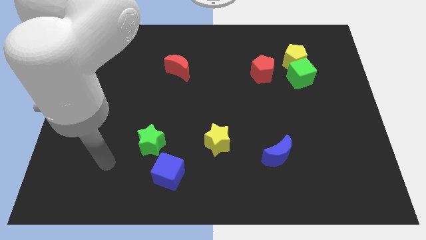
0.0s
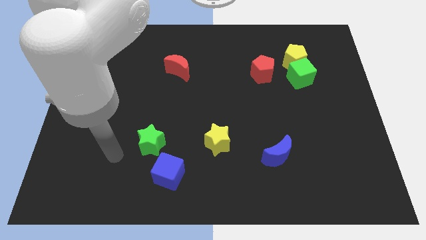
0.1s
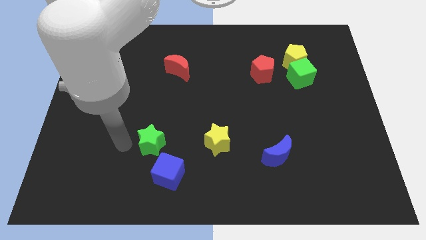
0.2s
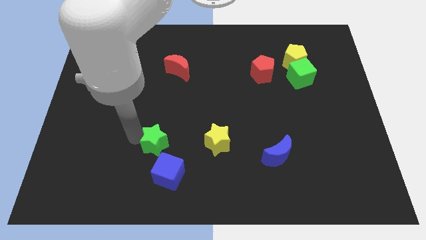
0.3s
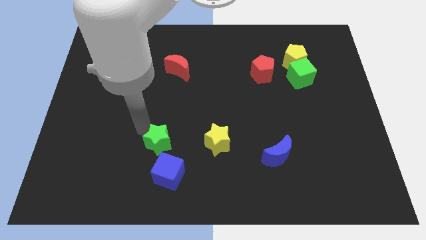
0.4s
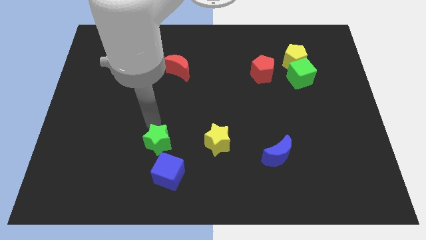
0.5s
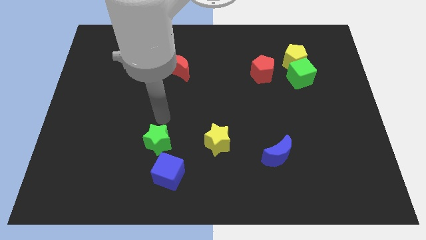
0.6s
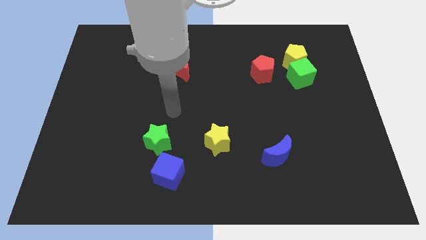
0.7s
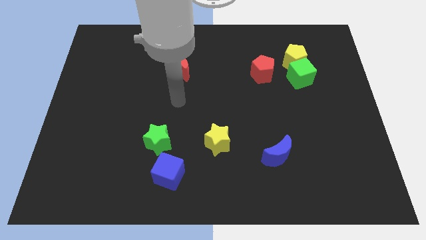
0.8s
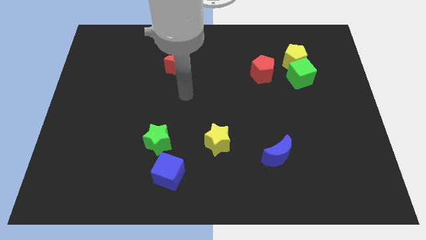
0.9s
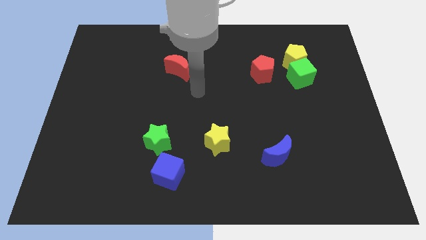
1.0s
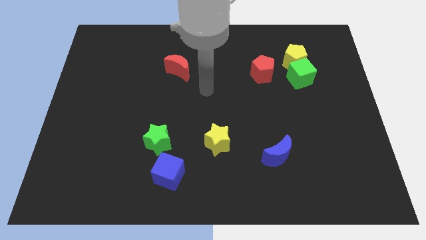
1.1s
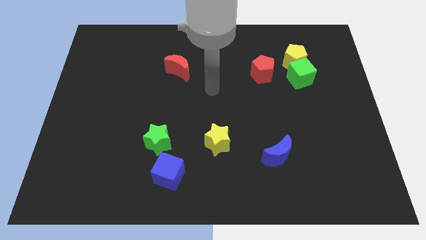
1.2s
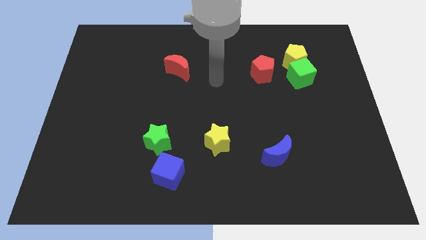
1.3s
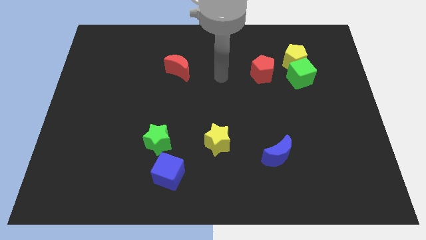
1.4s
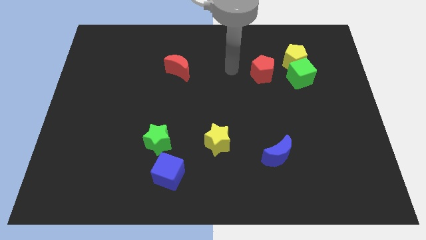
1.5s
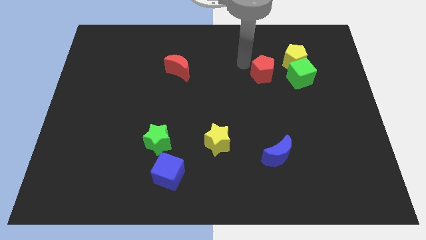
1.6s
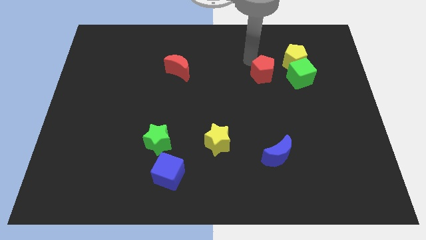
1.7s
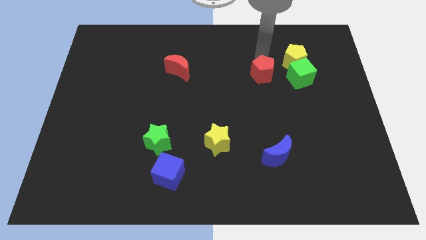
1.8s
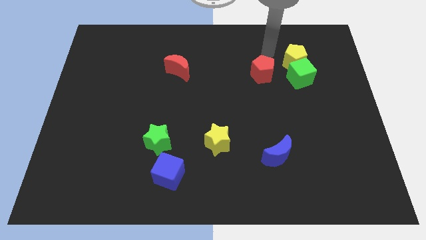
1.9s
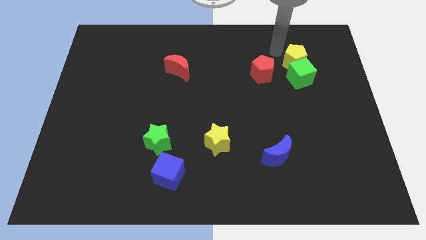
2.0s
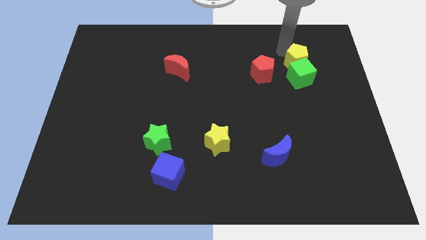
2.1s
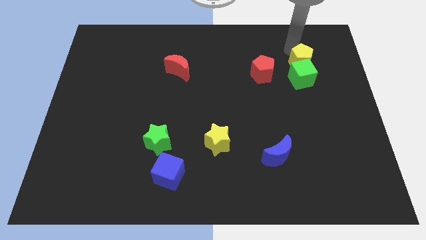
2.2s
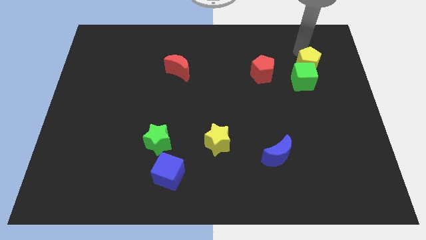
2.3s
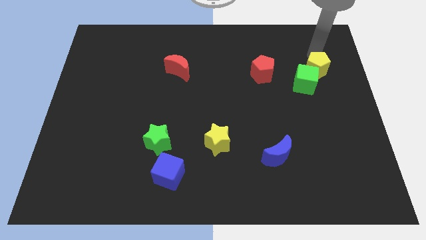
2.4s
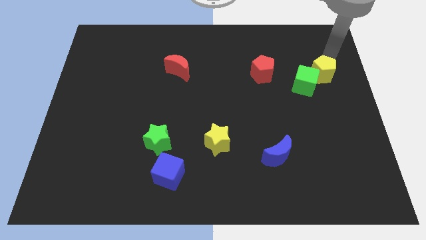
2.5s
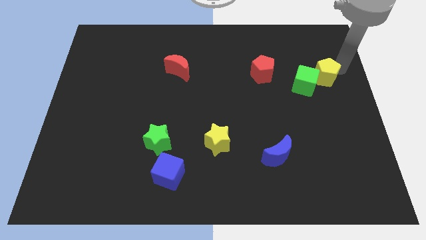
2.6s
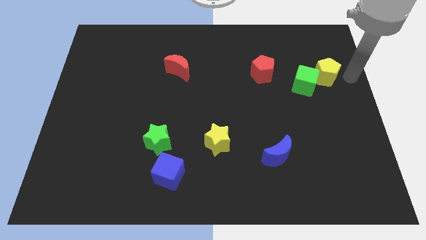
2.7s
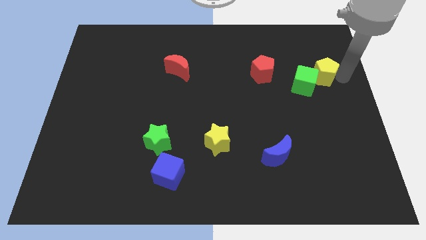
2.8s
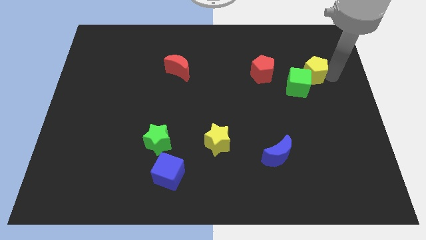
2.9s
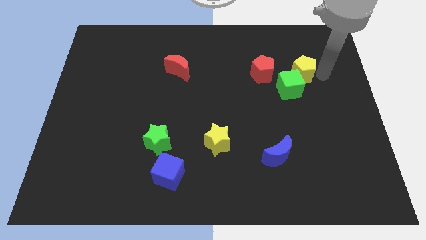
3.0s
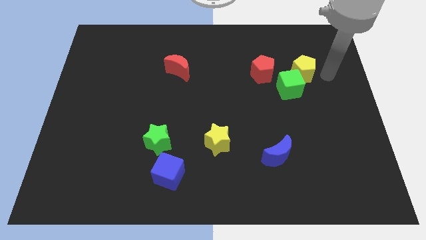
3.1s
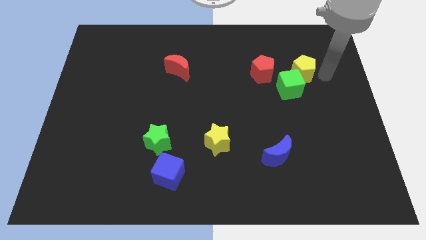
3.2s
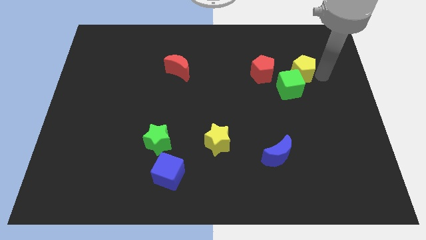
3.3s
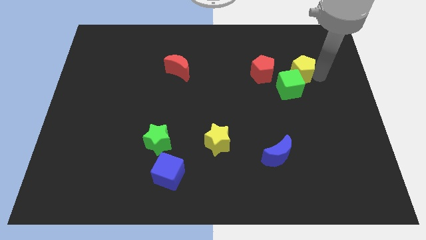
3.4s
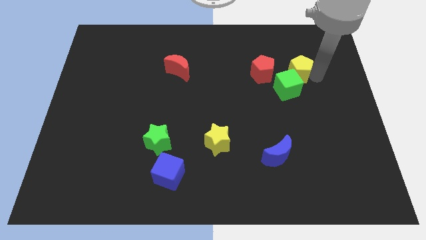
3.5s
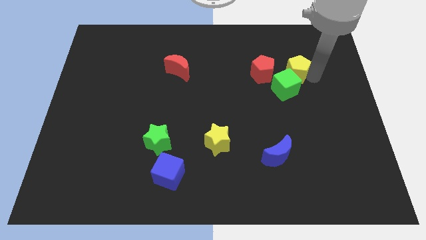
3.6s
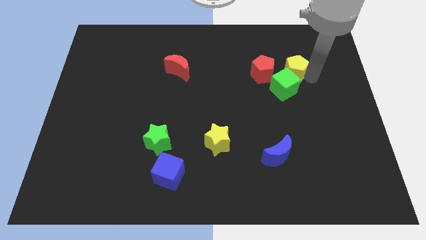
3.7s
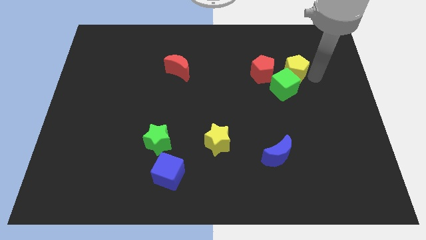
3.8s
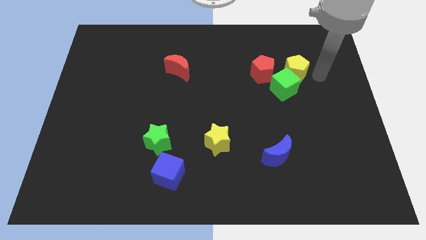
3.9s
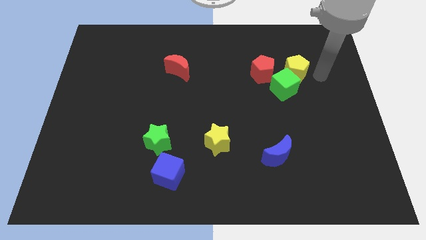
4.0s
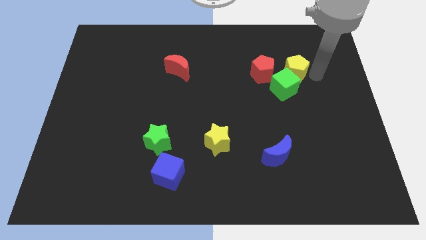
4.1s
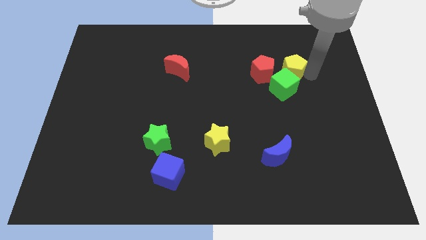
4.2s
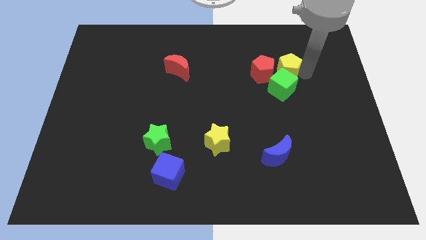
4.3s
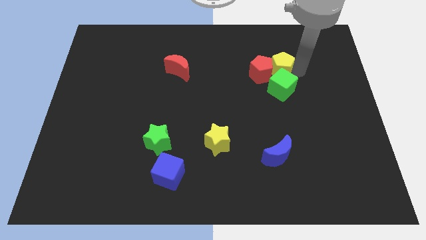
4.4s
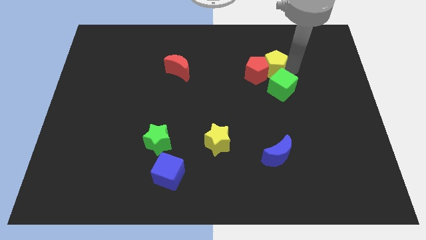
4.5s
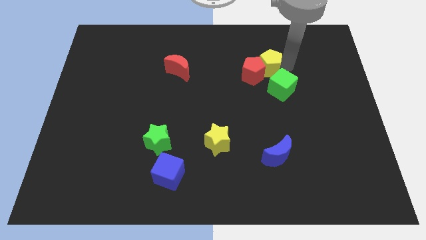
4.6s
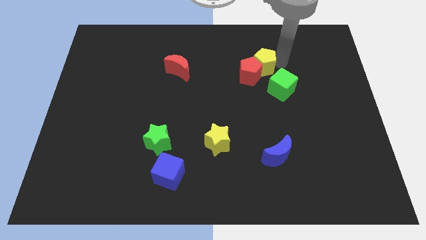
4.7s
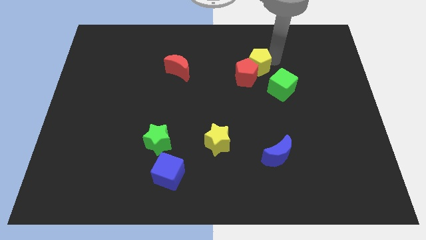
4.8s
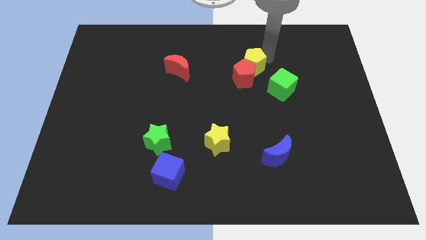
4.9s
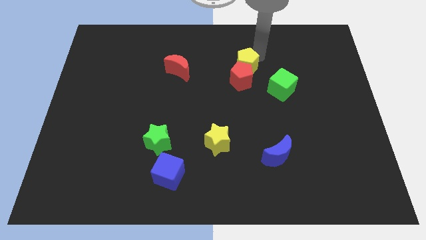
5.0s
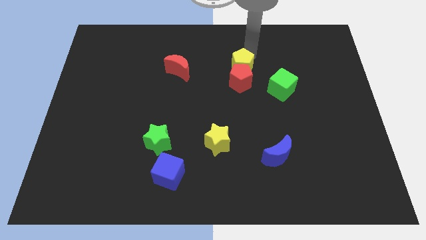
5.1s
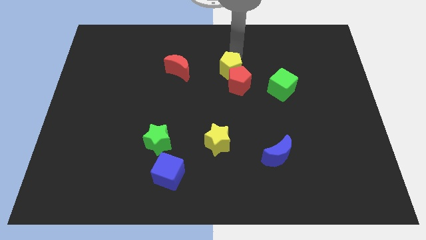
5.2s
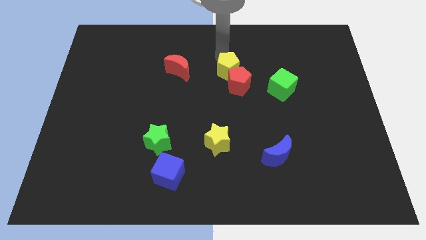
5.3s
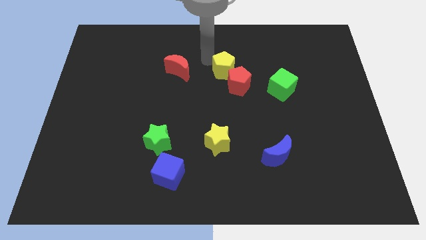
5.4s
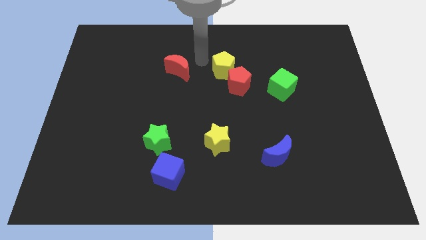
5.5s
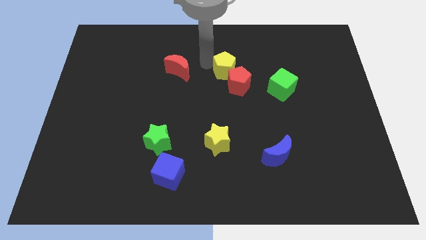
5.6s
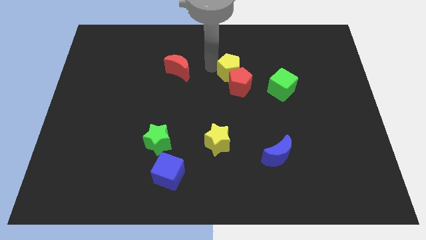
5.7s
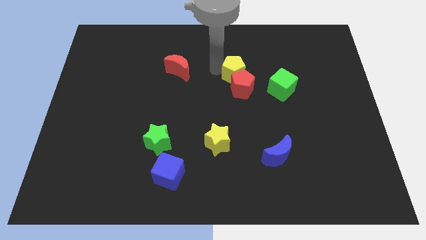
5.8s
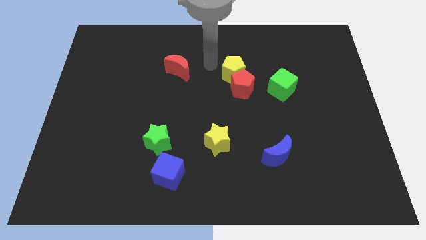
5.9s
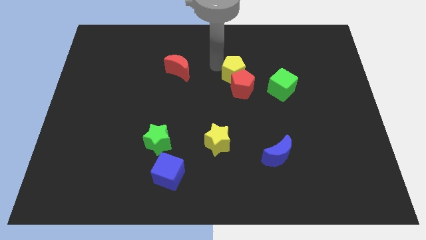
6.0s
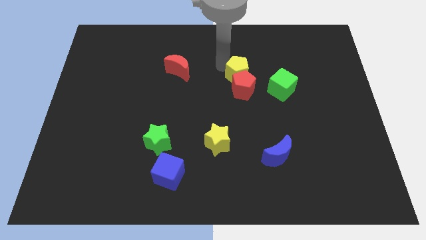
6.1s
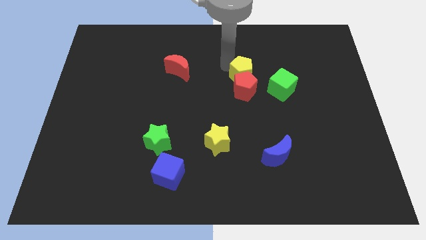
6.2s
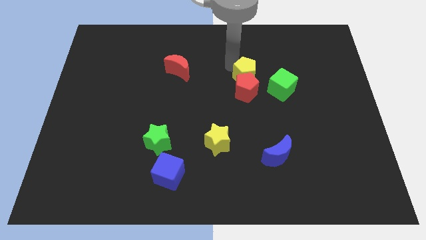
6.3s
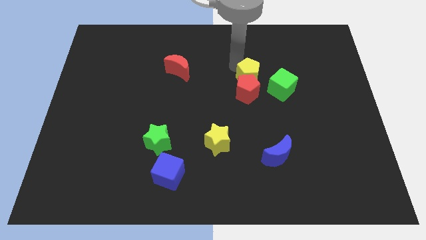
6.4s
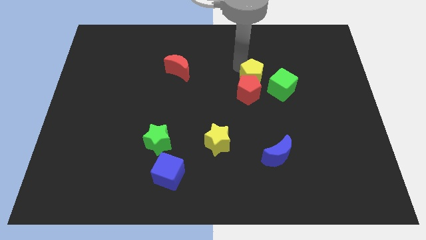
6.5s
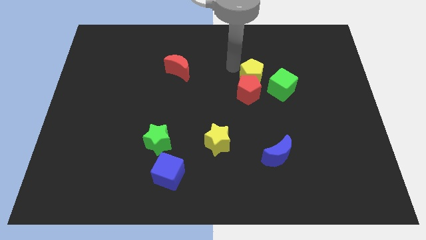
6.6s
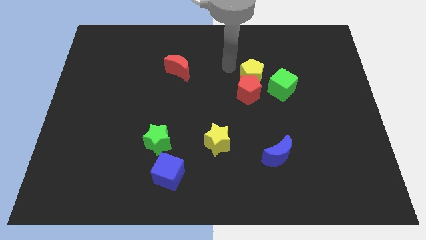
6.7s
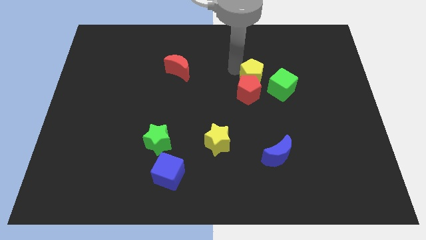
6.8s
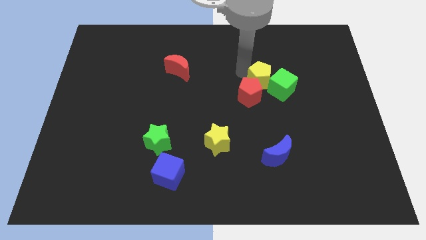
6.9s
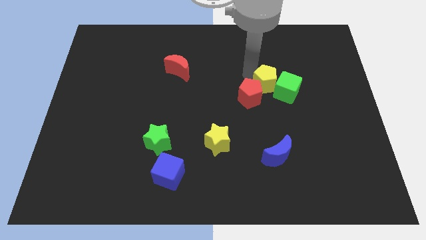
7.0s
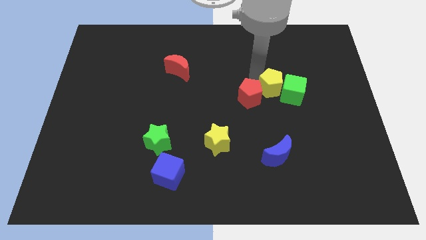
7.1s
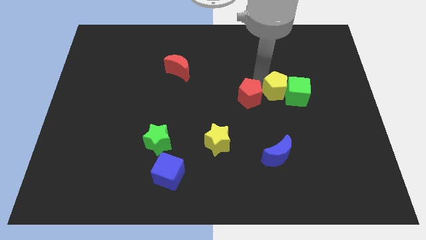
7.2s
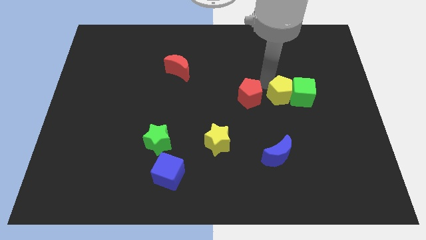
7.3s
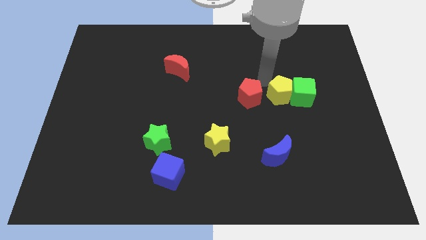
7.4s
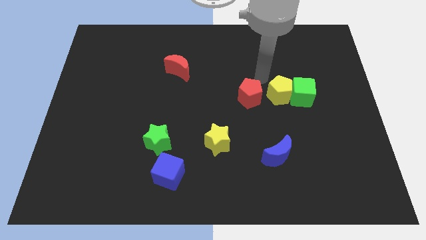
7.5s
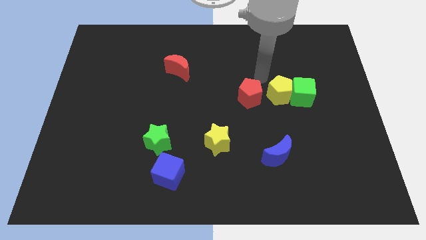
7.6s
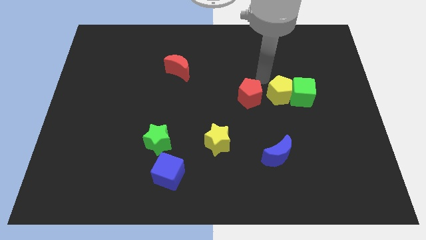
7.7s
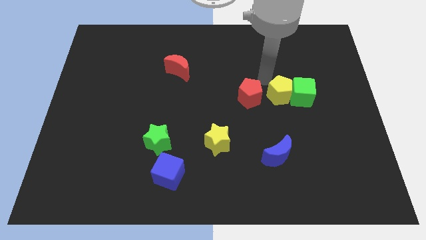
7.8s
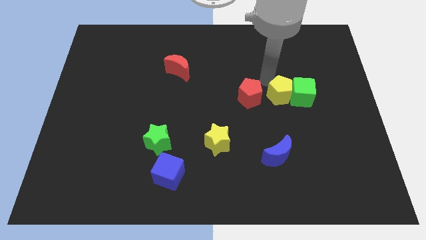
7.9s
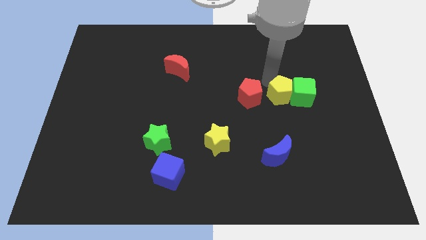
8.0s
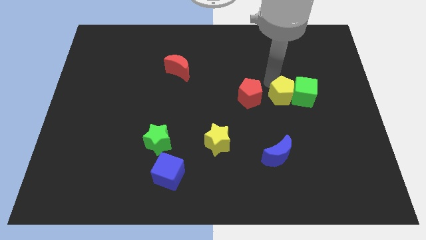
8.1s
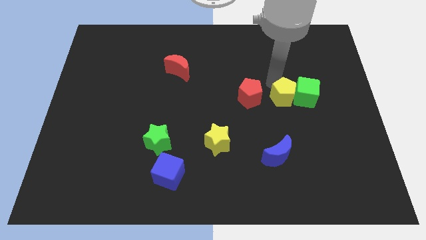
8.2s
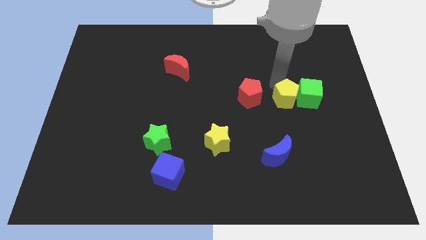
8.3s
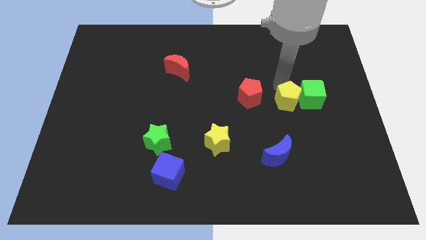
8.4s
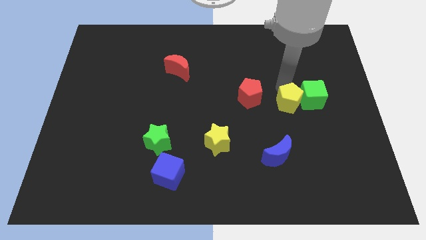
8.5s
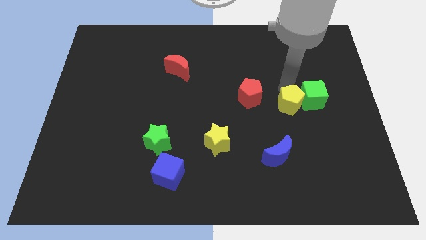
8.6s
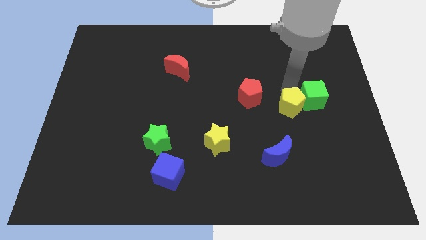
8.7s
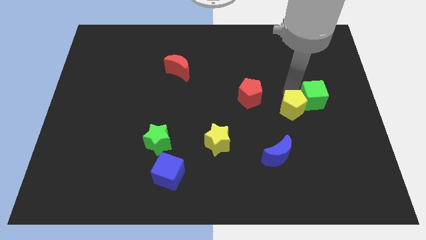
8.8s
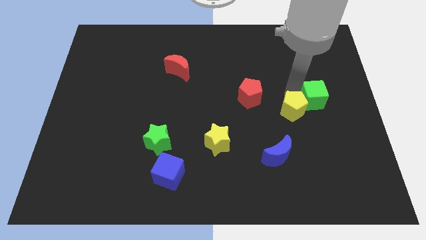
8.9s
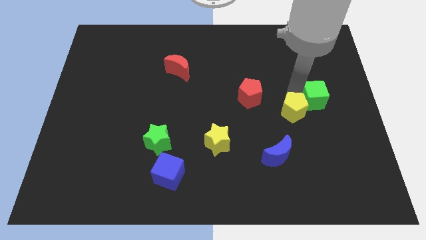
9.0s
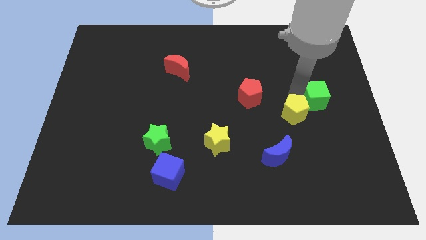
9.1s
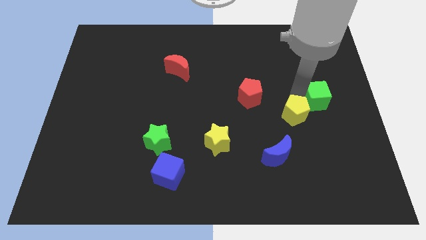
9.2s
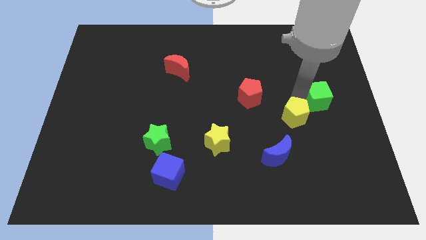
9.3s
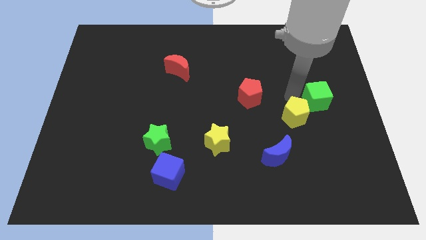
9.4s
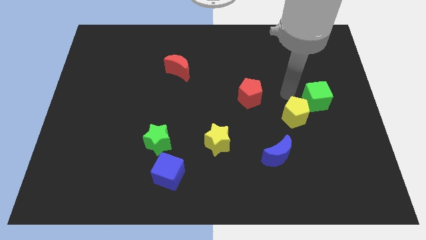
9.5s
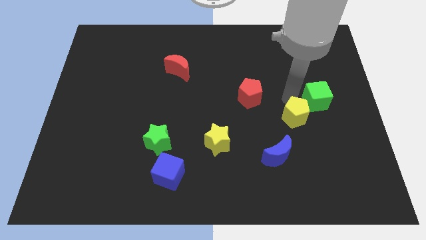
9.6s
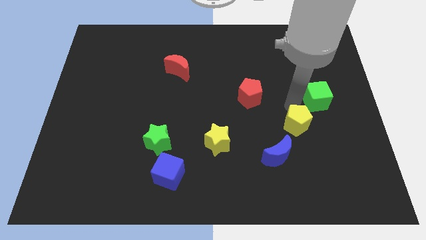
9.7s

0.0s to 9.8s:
slide the yellow pentagon down
